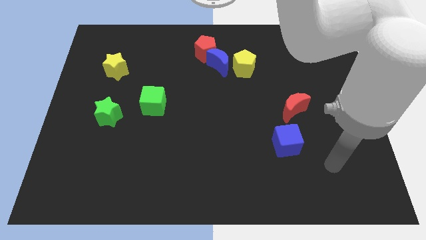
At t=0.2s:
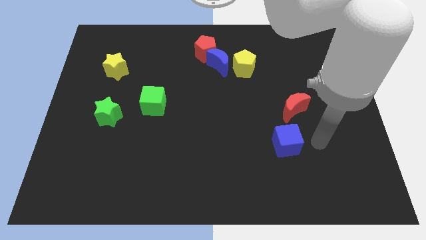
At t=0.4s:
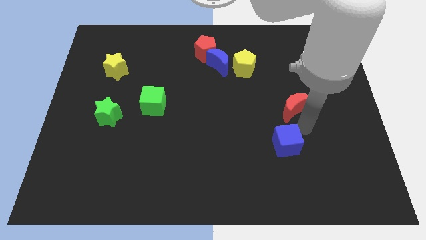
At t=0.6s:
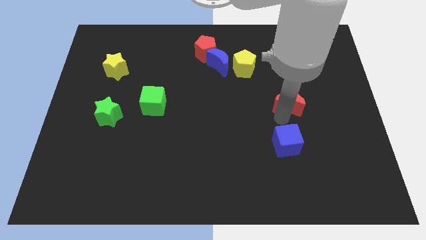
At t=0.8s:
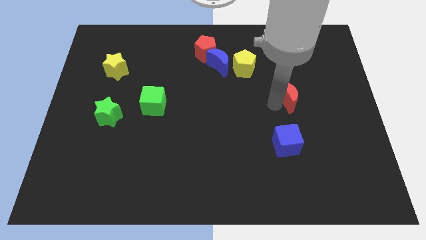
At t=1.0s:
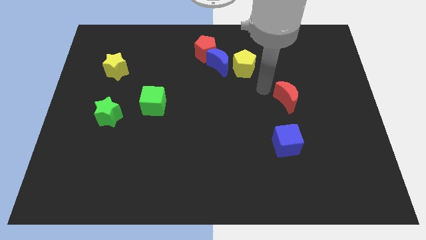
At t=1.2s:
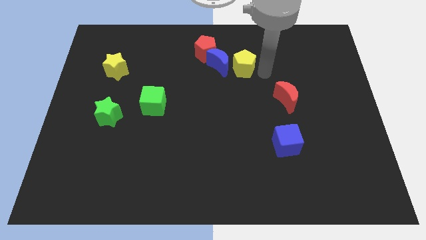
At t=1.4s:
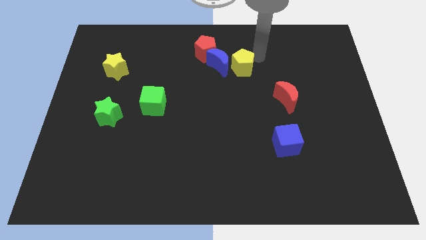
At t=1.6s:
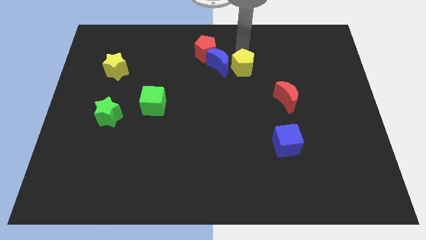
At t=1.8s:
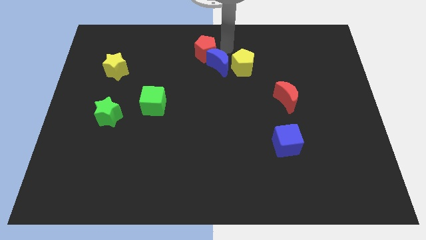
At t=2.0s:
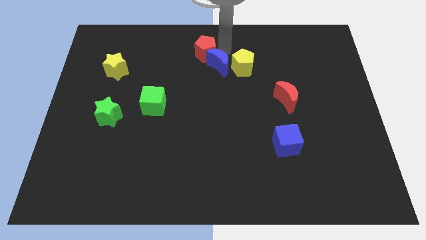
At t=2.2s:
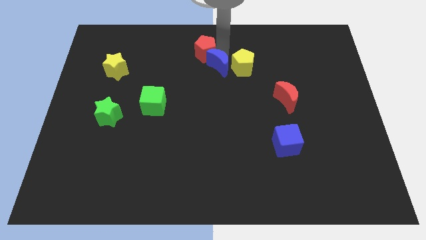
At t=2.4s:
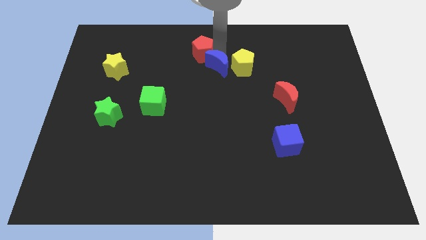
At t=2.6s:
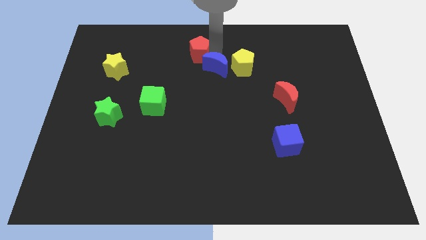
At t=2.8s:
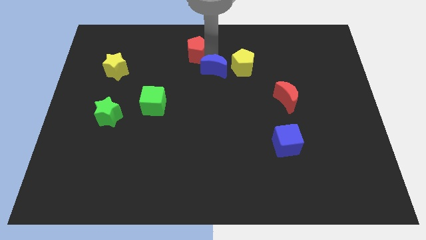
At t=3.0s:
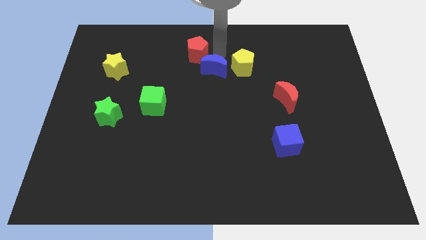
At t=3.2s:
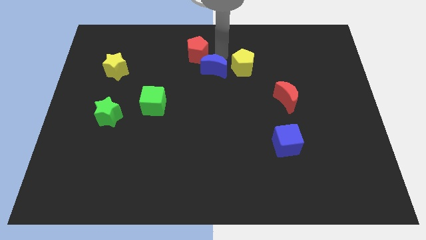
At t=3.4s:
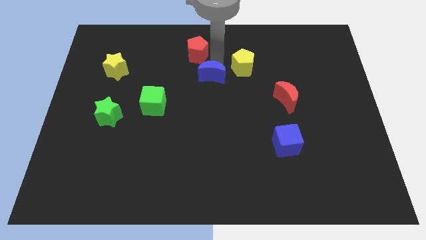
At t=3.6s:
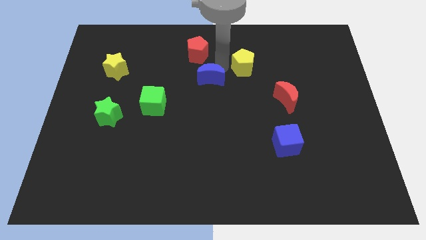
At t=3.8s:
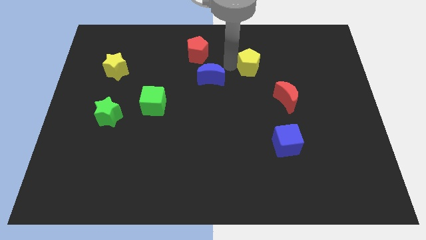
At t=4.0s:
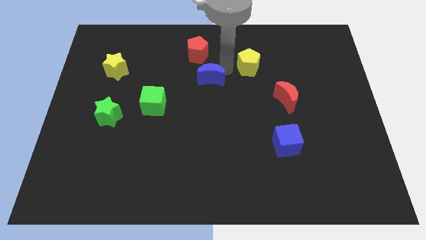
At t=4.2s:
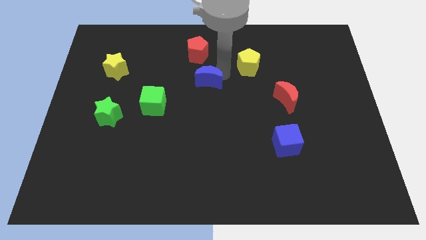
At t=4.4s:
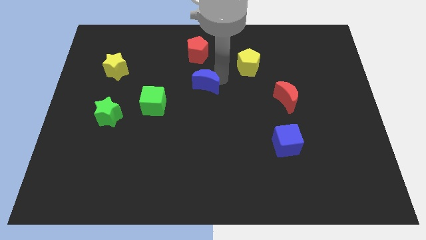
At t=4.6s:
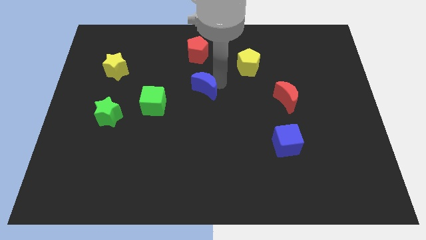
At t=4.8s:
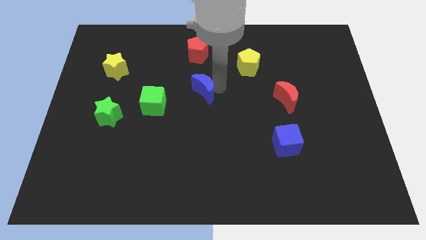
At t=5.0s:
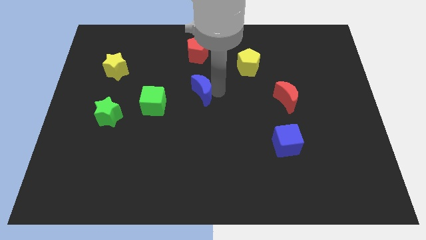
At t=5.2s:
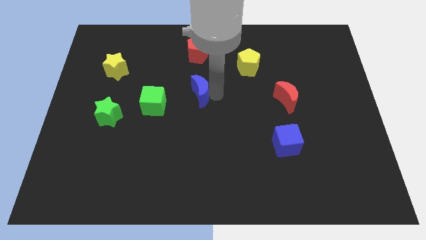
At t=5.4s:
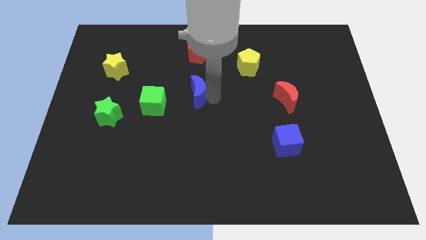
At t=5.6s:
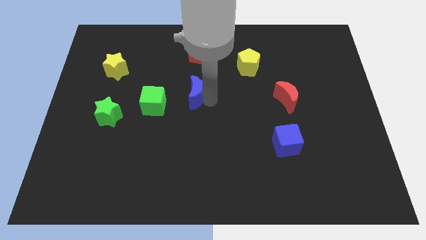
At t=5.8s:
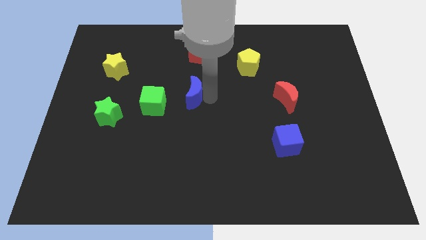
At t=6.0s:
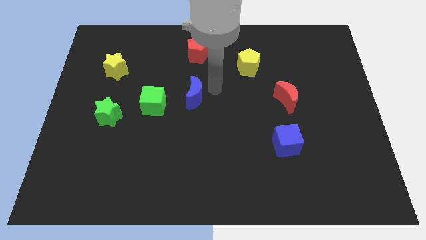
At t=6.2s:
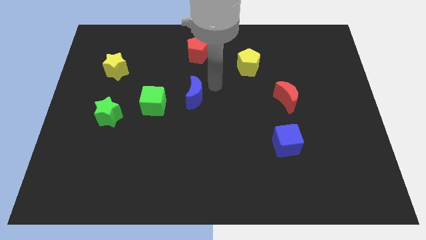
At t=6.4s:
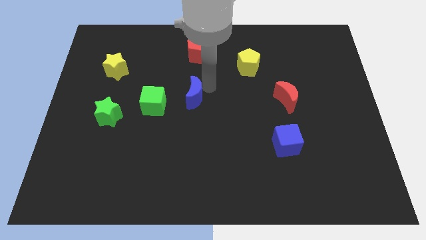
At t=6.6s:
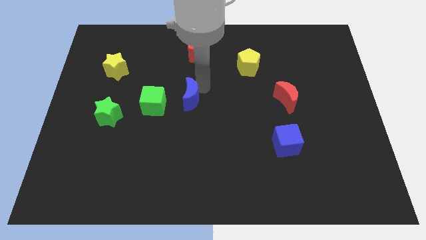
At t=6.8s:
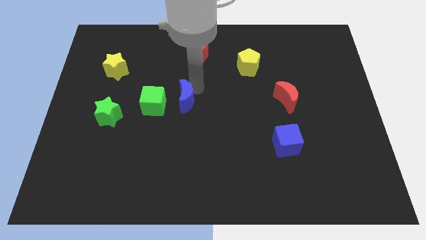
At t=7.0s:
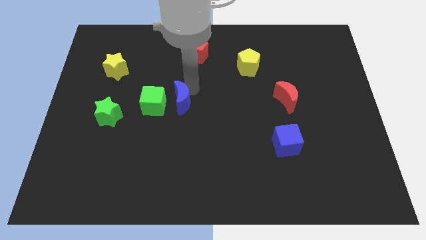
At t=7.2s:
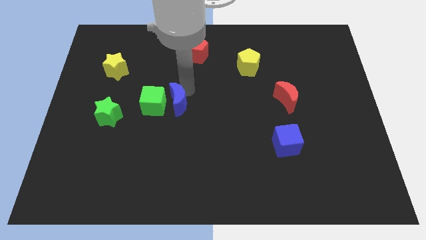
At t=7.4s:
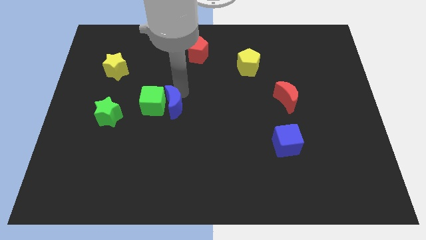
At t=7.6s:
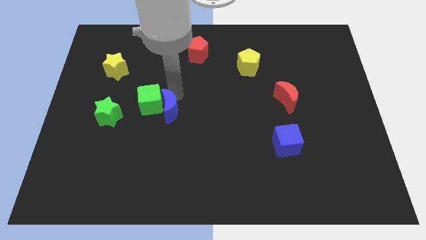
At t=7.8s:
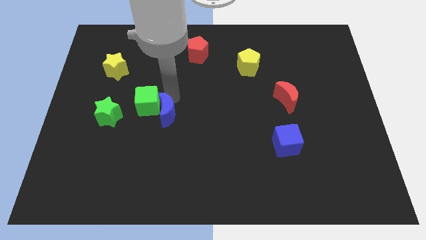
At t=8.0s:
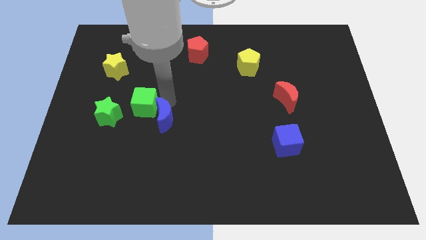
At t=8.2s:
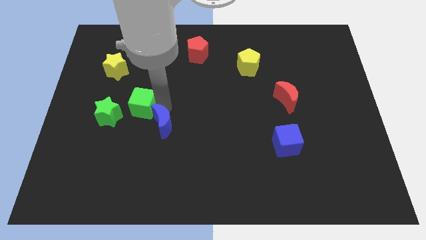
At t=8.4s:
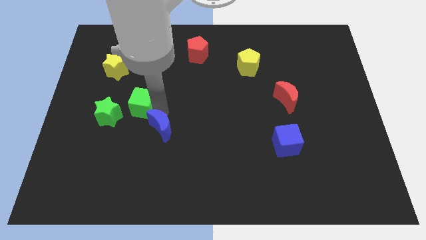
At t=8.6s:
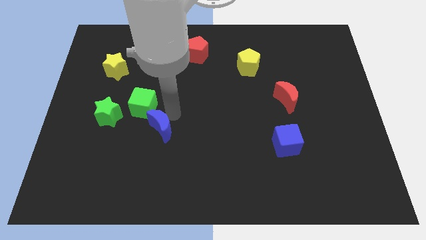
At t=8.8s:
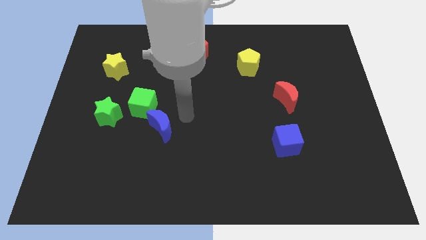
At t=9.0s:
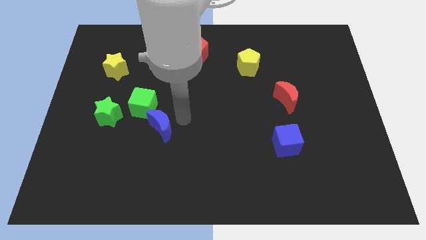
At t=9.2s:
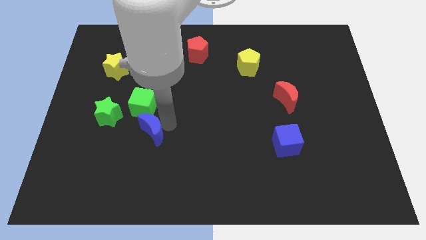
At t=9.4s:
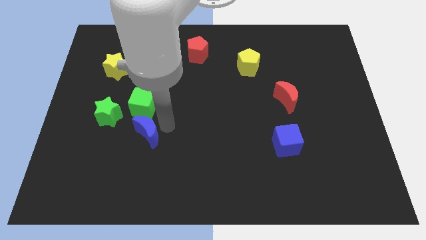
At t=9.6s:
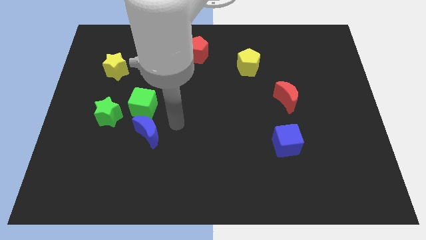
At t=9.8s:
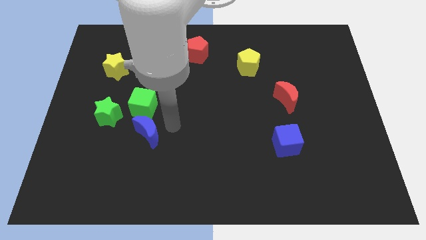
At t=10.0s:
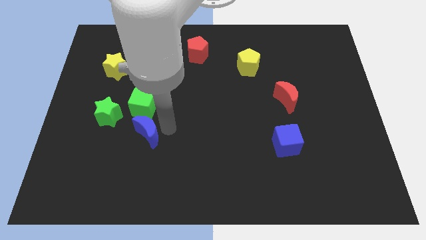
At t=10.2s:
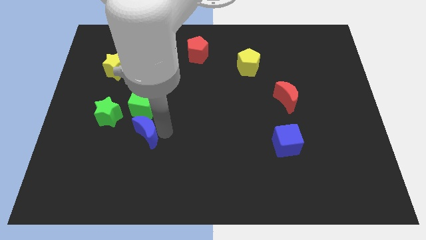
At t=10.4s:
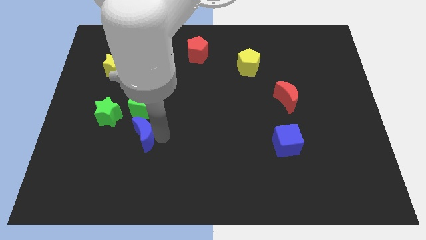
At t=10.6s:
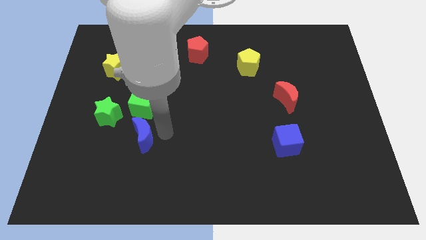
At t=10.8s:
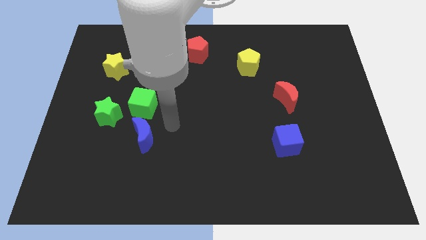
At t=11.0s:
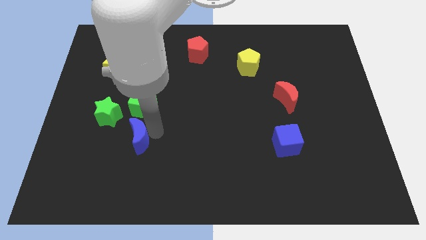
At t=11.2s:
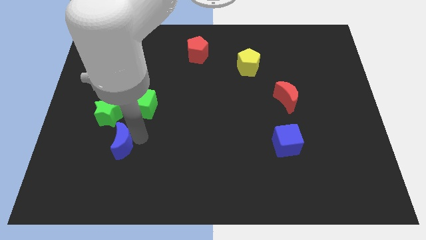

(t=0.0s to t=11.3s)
put the blue moon to the bottom of the green star

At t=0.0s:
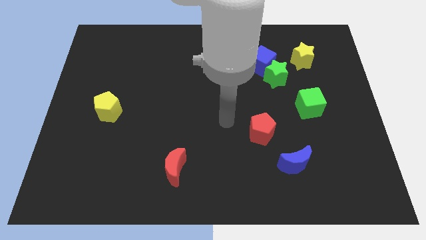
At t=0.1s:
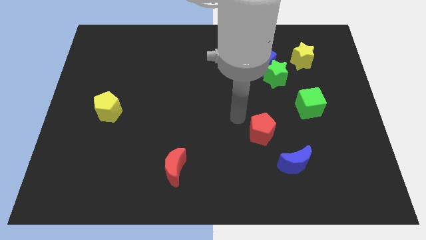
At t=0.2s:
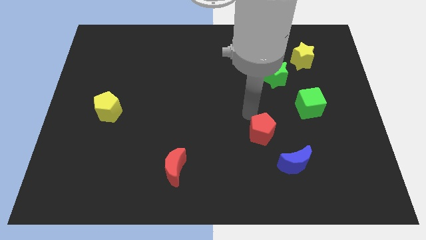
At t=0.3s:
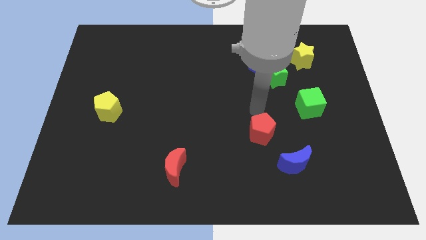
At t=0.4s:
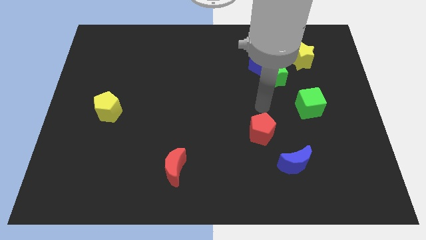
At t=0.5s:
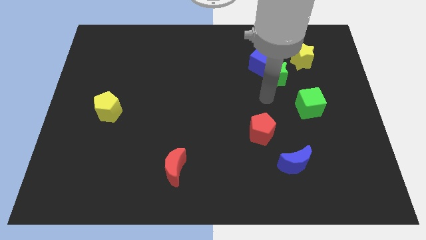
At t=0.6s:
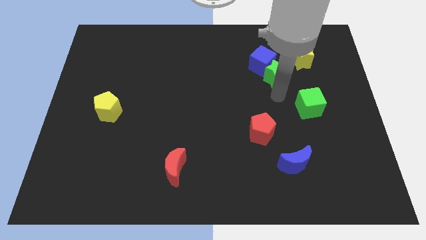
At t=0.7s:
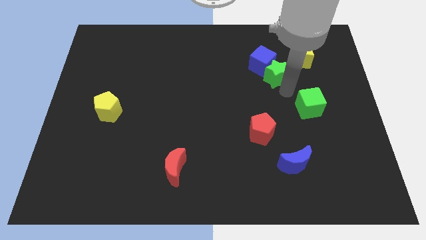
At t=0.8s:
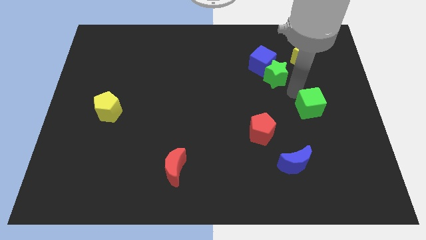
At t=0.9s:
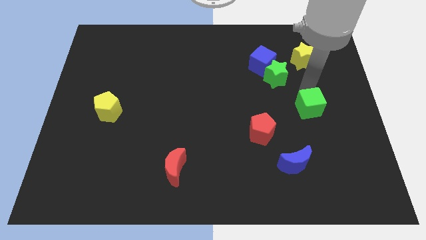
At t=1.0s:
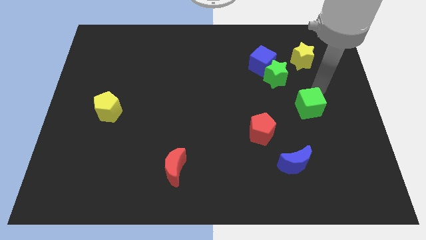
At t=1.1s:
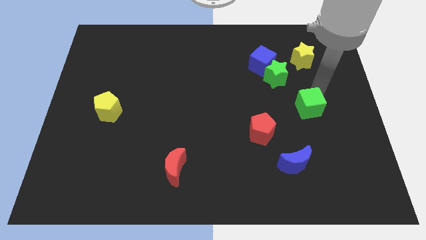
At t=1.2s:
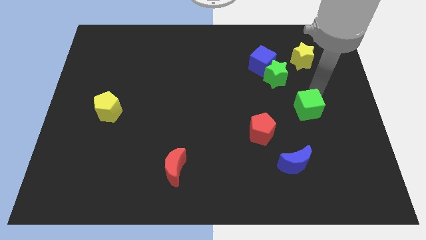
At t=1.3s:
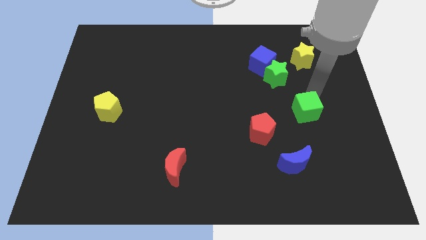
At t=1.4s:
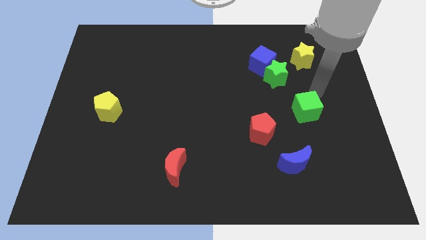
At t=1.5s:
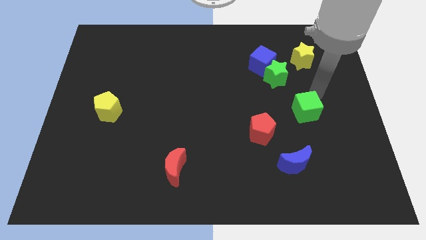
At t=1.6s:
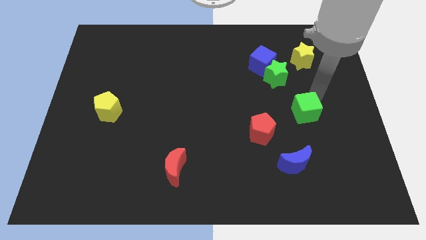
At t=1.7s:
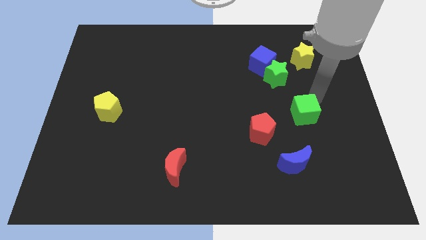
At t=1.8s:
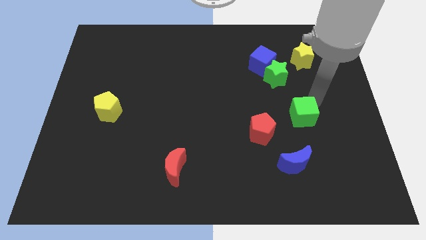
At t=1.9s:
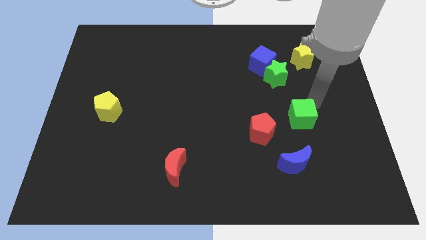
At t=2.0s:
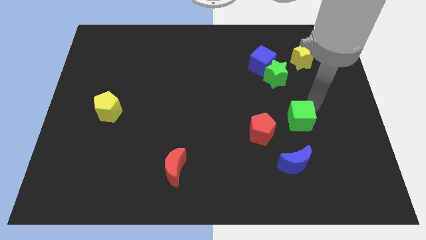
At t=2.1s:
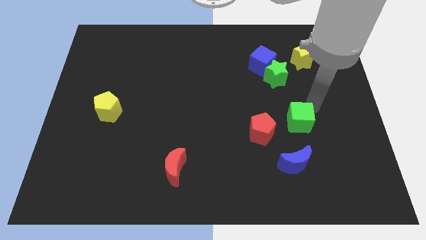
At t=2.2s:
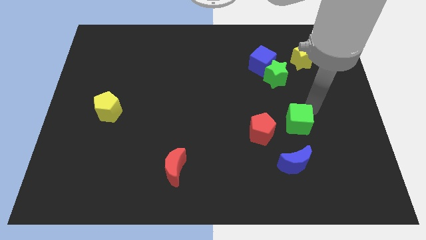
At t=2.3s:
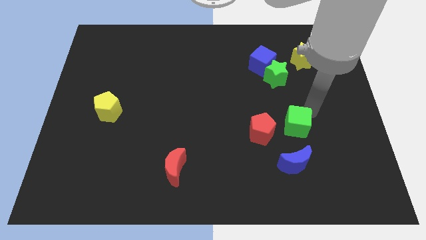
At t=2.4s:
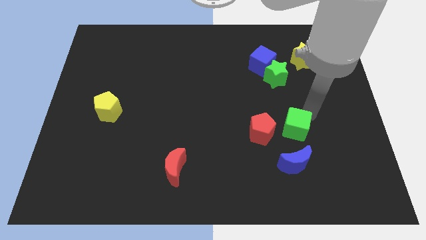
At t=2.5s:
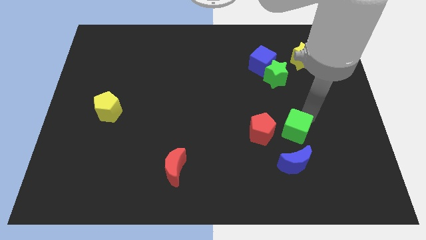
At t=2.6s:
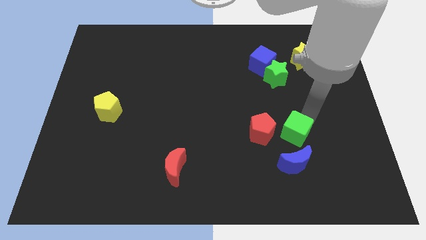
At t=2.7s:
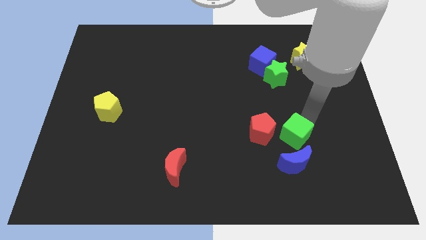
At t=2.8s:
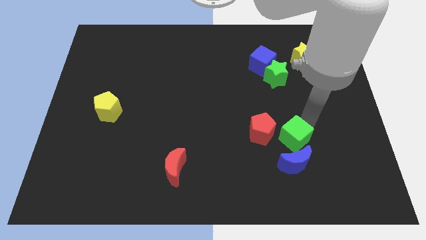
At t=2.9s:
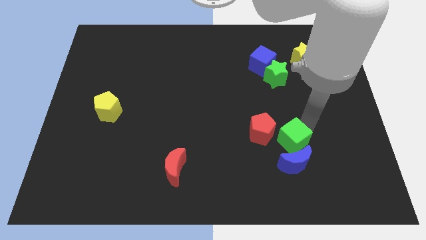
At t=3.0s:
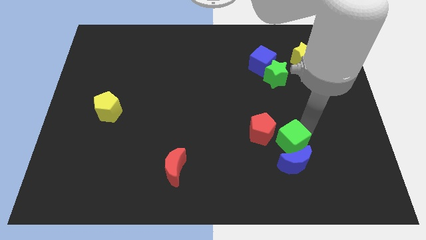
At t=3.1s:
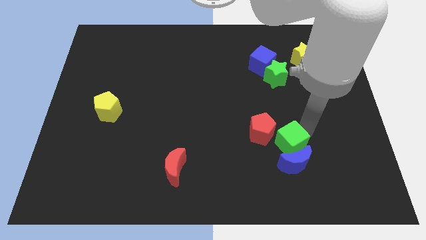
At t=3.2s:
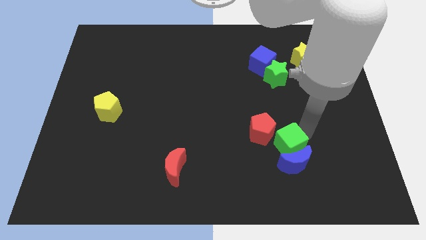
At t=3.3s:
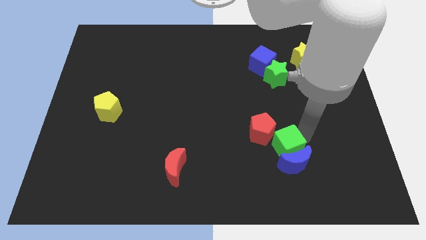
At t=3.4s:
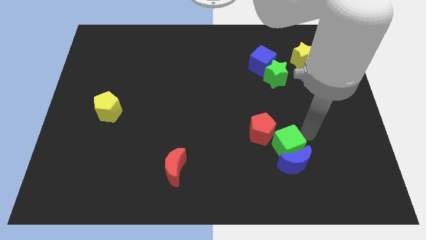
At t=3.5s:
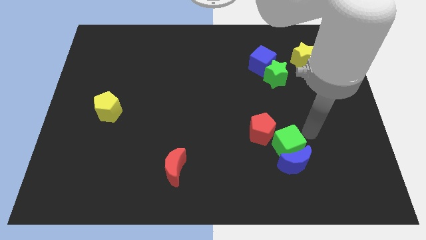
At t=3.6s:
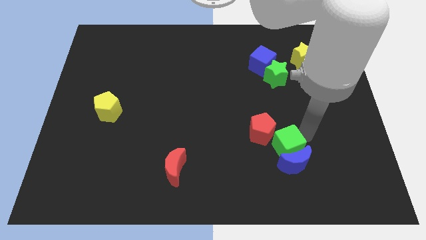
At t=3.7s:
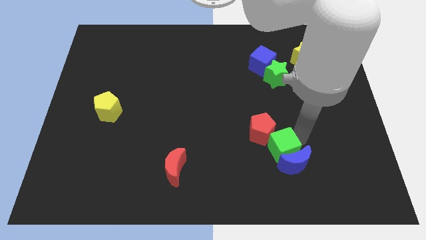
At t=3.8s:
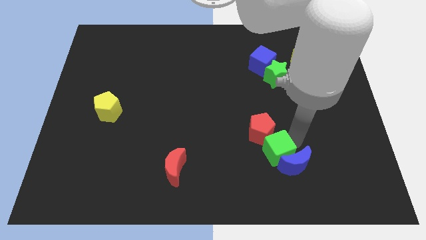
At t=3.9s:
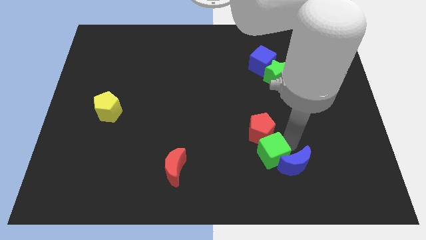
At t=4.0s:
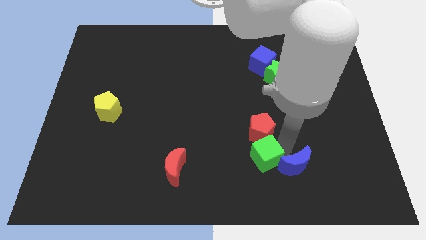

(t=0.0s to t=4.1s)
put the green cube to the bottom left side of the red pentagon
